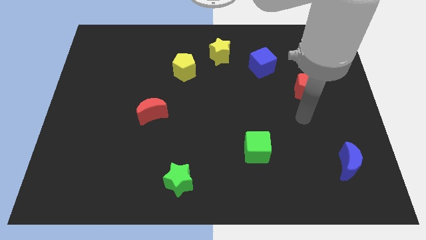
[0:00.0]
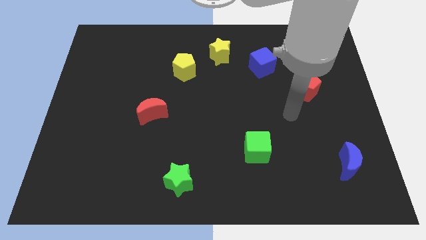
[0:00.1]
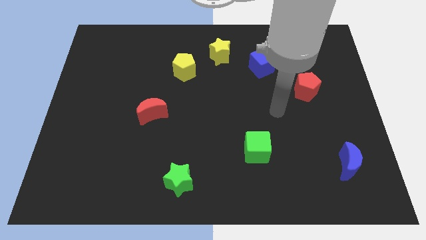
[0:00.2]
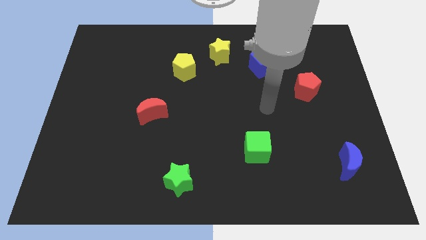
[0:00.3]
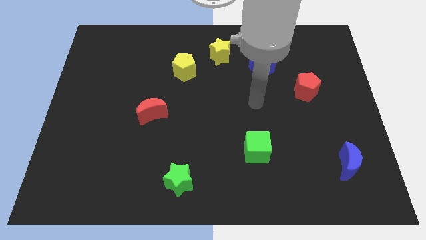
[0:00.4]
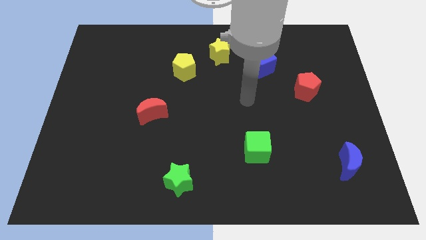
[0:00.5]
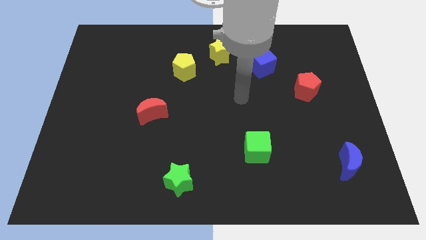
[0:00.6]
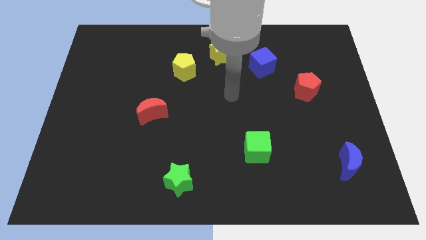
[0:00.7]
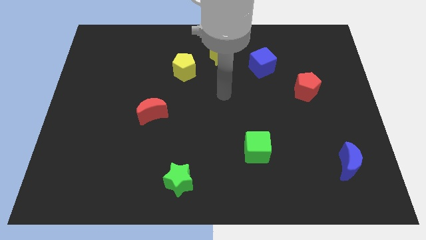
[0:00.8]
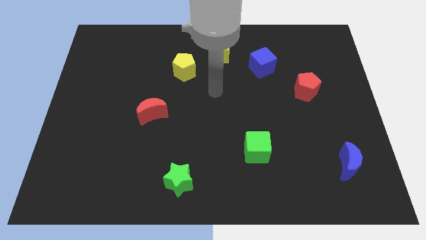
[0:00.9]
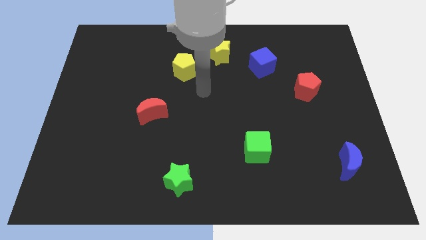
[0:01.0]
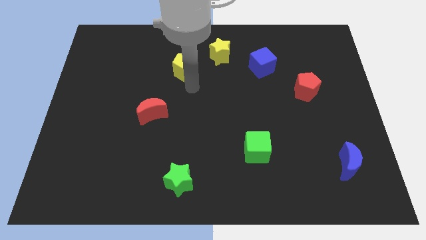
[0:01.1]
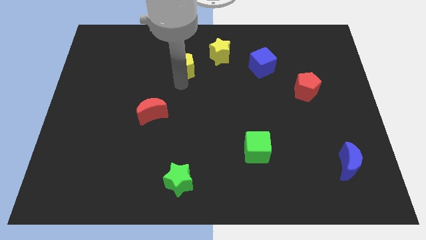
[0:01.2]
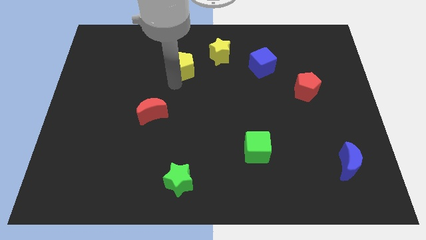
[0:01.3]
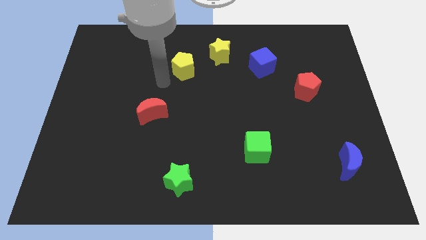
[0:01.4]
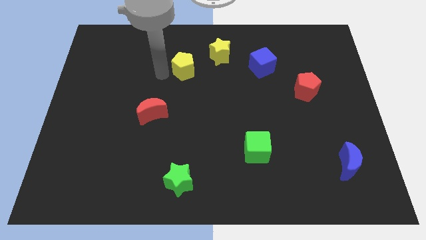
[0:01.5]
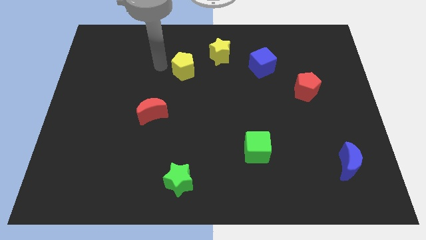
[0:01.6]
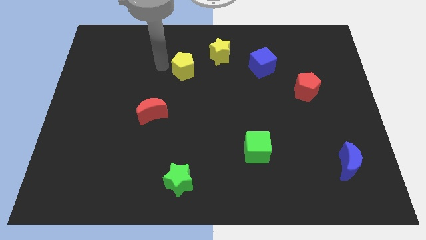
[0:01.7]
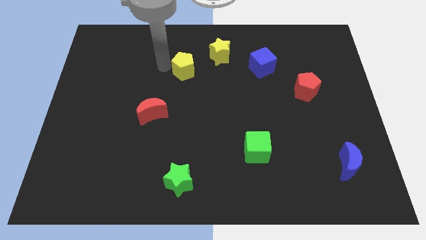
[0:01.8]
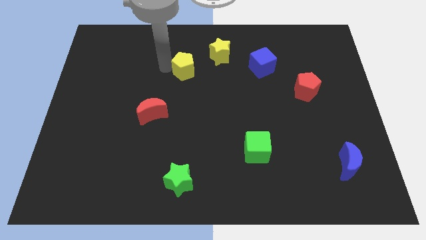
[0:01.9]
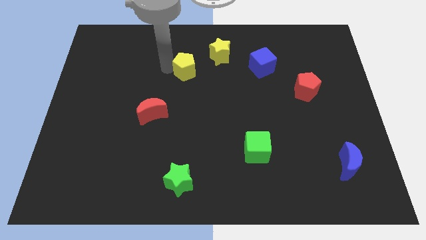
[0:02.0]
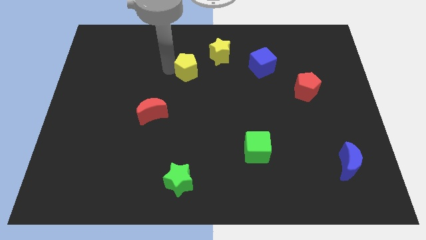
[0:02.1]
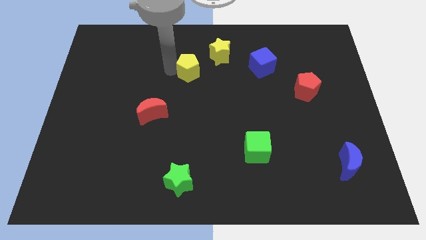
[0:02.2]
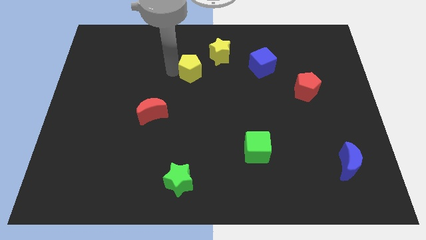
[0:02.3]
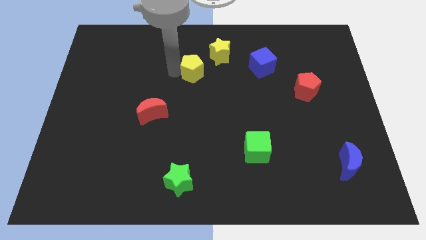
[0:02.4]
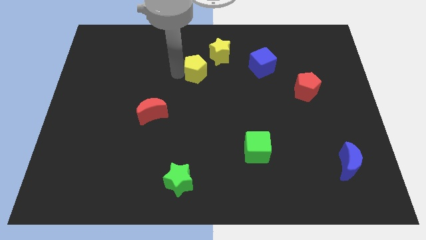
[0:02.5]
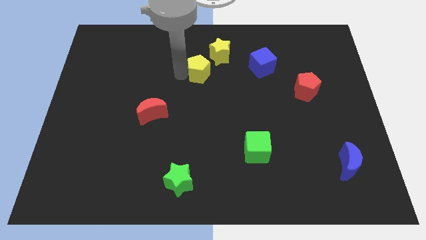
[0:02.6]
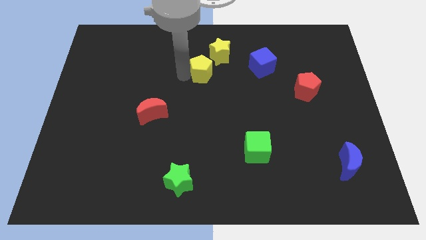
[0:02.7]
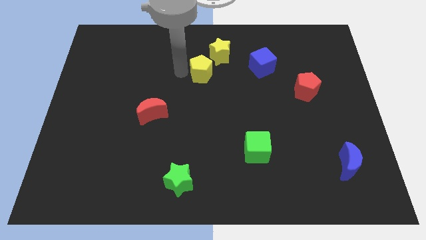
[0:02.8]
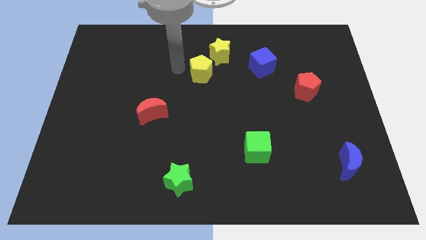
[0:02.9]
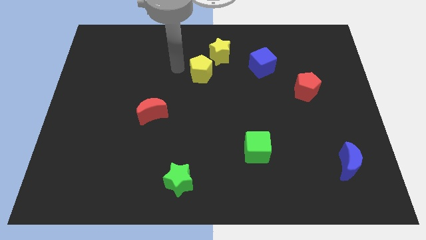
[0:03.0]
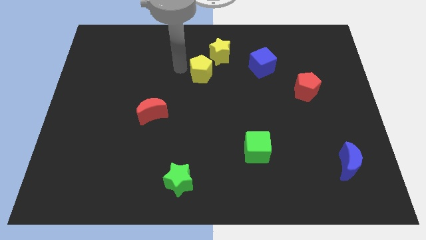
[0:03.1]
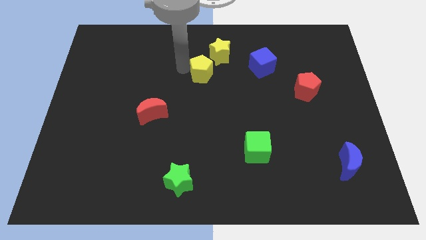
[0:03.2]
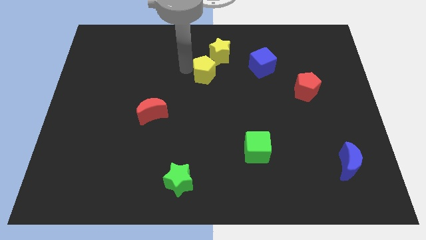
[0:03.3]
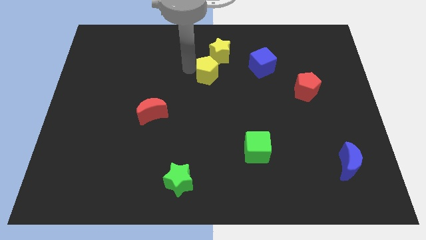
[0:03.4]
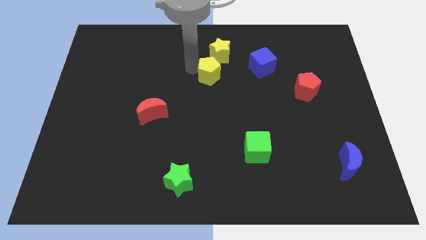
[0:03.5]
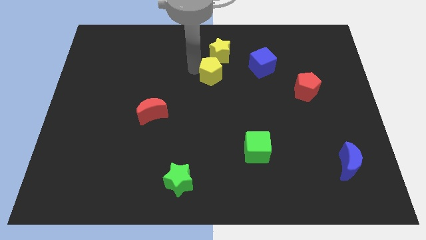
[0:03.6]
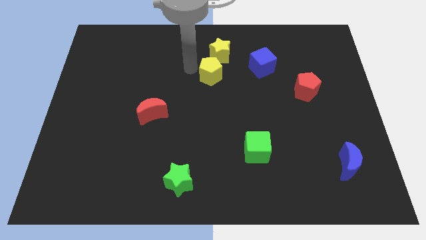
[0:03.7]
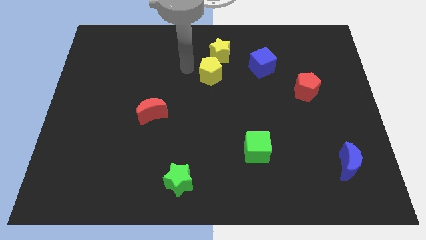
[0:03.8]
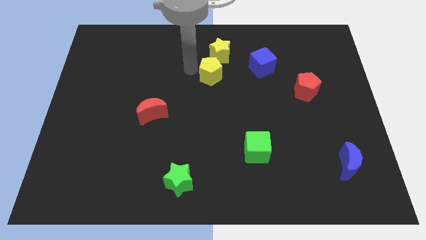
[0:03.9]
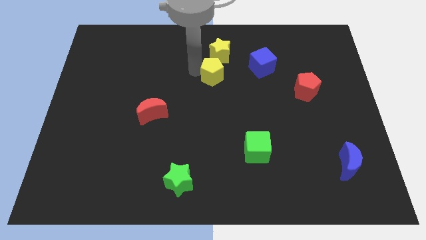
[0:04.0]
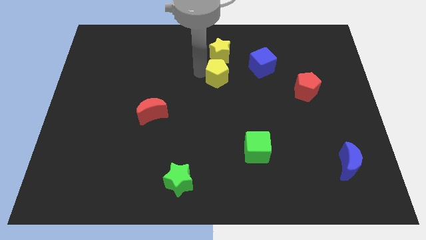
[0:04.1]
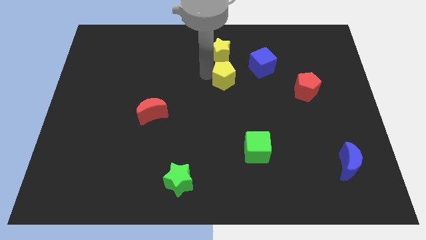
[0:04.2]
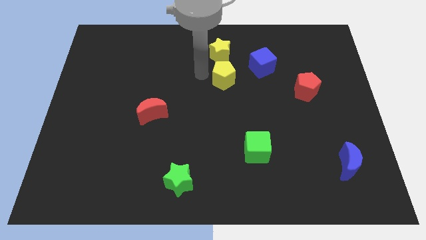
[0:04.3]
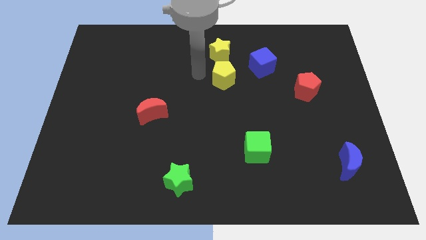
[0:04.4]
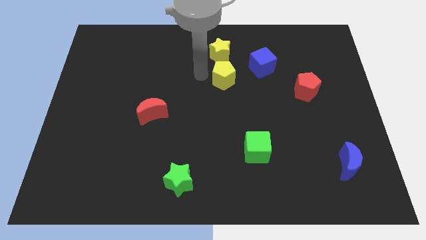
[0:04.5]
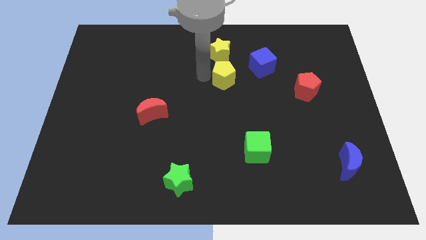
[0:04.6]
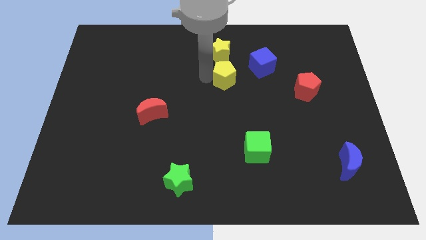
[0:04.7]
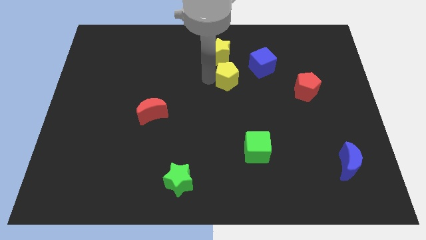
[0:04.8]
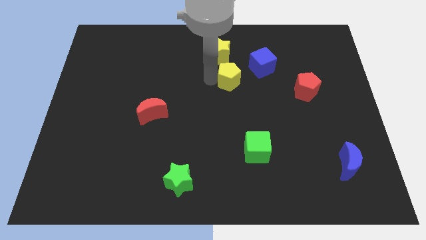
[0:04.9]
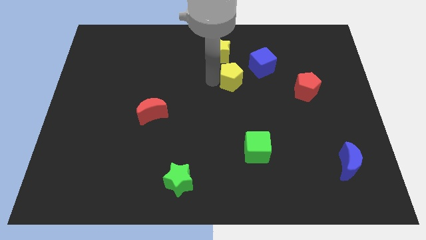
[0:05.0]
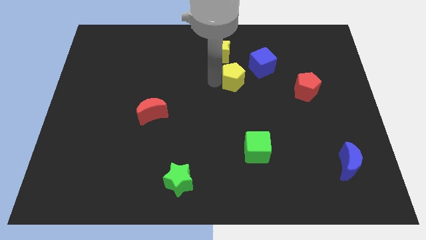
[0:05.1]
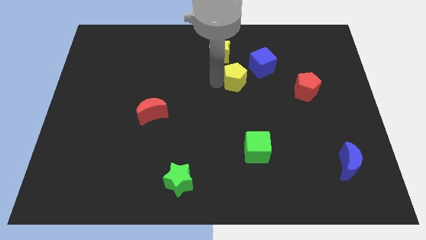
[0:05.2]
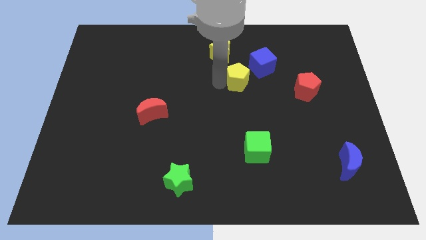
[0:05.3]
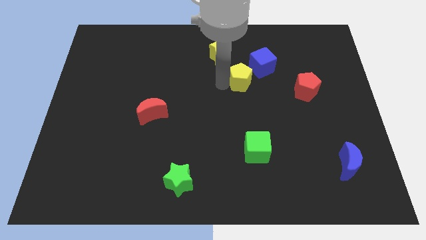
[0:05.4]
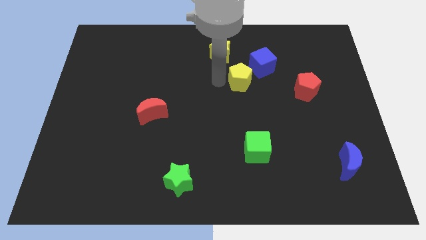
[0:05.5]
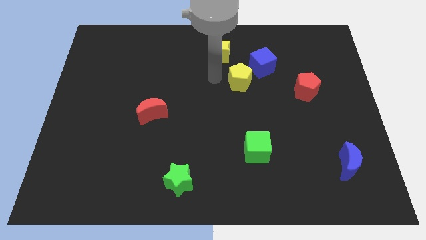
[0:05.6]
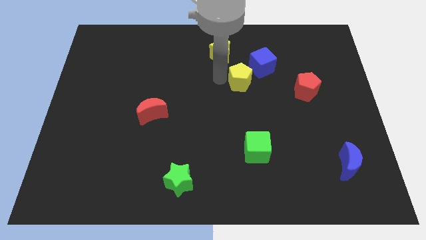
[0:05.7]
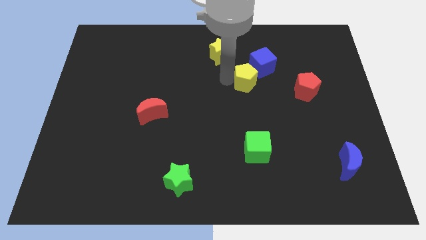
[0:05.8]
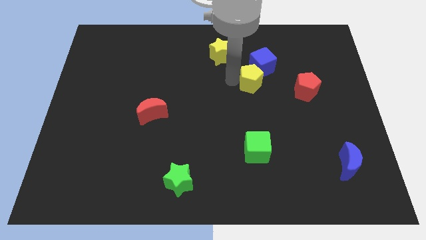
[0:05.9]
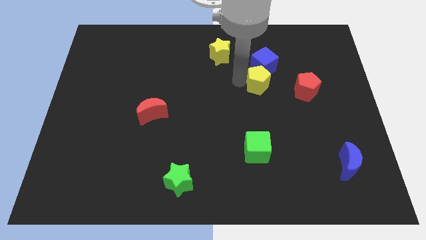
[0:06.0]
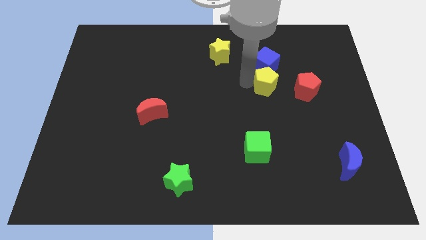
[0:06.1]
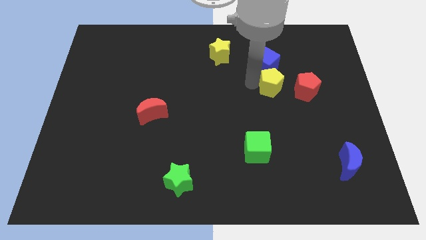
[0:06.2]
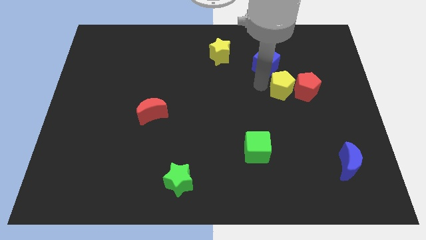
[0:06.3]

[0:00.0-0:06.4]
push the yellow pentagon towards the red pentagon

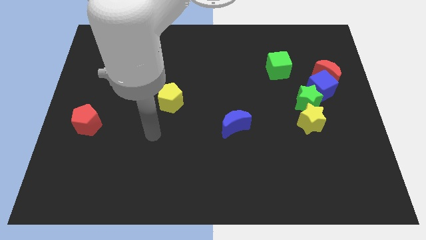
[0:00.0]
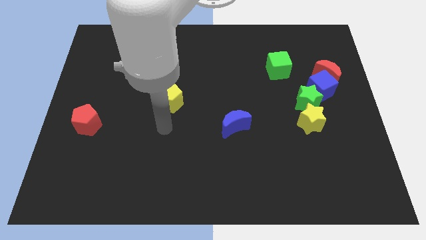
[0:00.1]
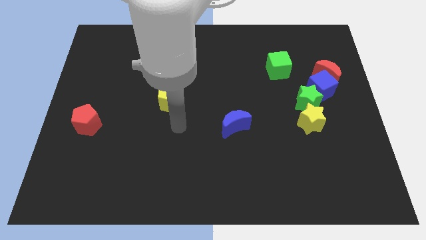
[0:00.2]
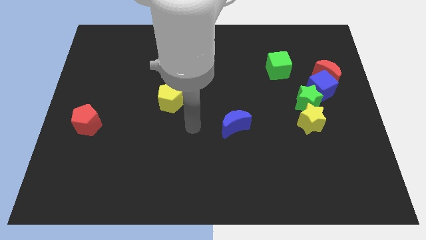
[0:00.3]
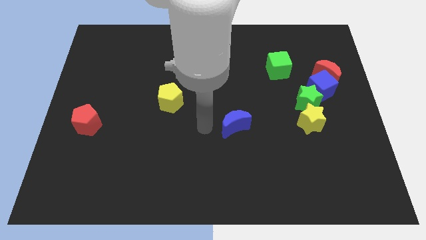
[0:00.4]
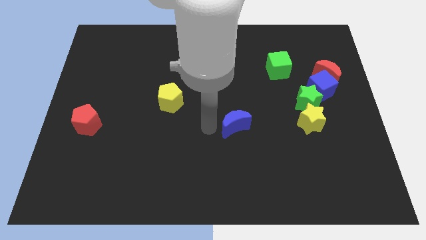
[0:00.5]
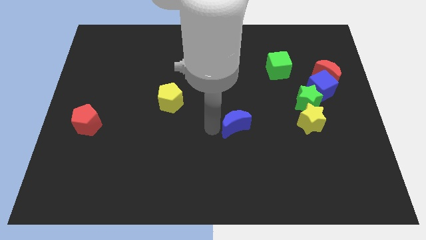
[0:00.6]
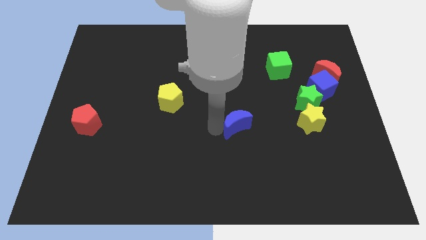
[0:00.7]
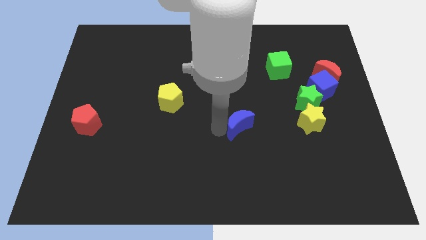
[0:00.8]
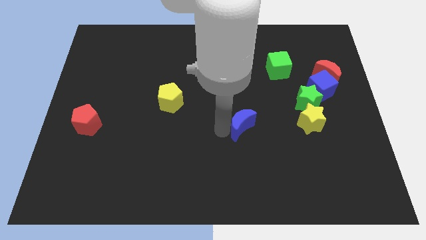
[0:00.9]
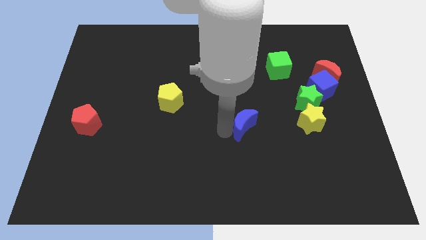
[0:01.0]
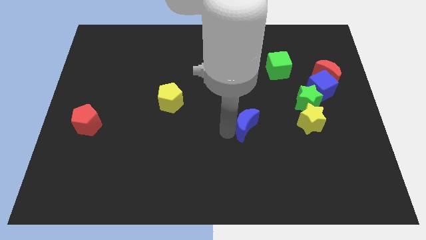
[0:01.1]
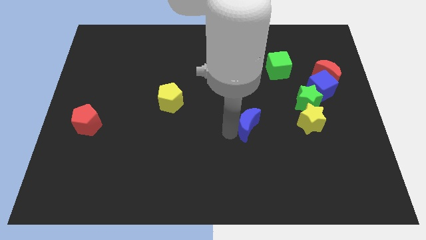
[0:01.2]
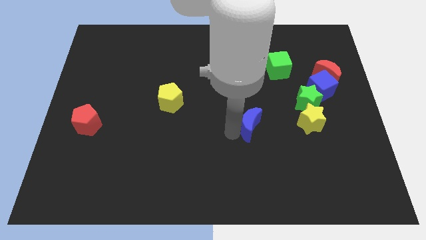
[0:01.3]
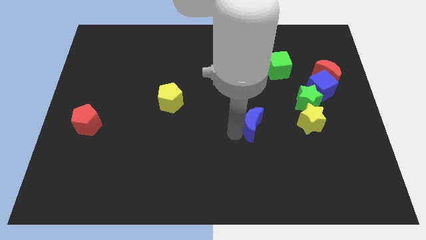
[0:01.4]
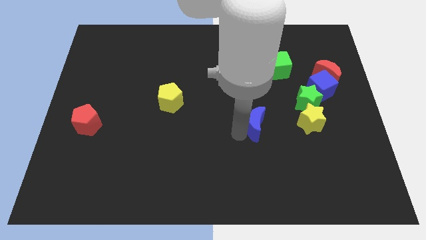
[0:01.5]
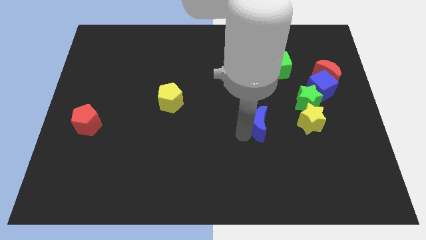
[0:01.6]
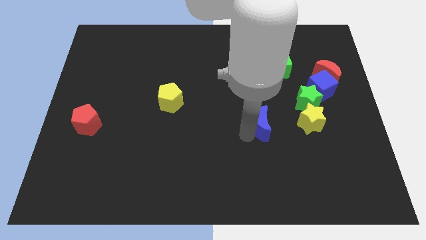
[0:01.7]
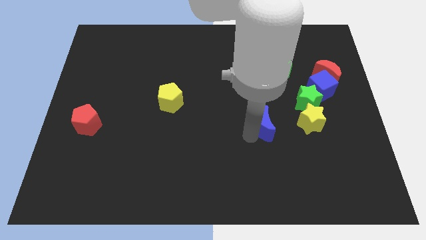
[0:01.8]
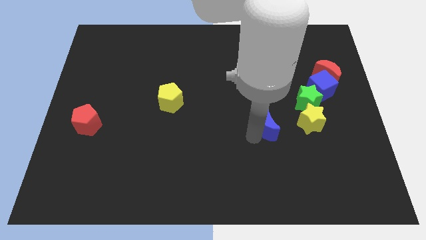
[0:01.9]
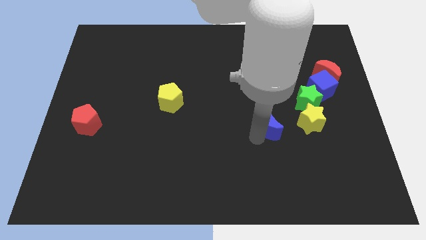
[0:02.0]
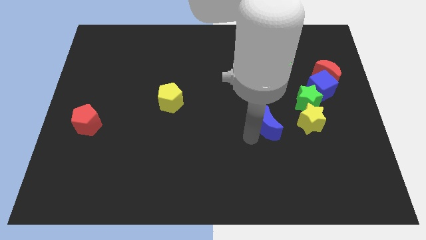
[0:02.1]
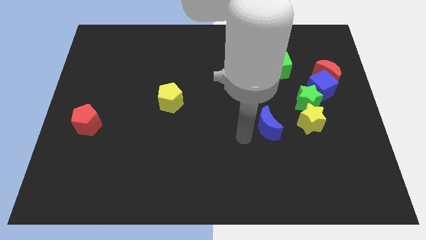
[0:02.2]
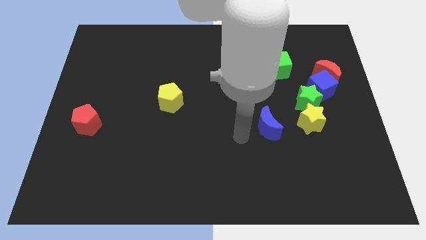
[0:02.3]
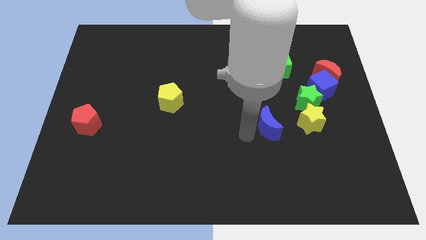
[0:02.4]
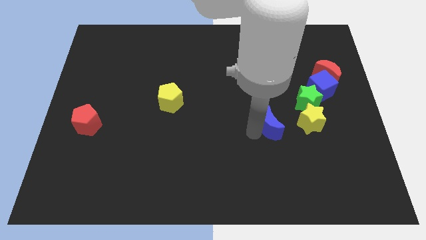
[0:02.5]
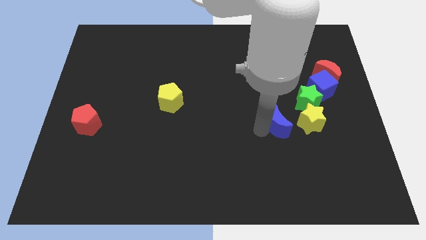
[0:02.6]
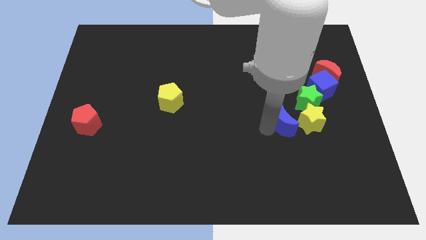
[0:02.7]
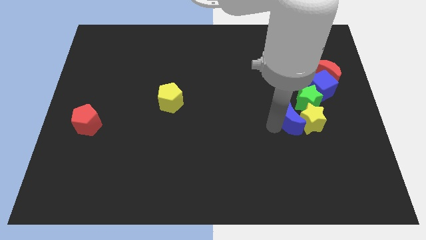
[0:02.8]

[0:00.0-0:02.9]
slide the blue moon close to the yellow star
